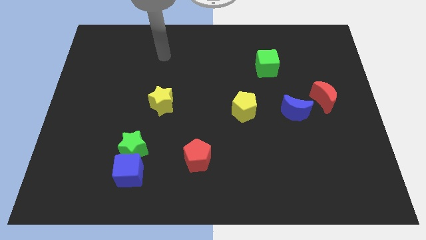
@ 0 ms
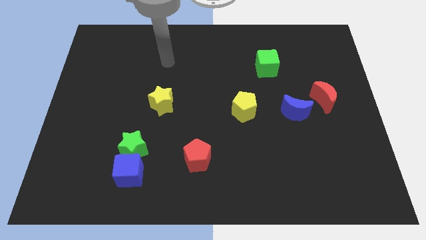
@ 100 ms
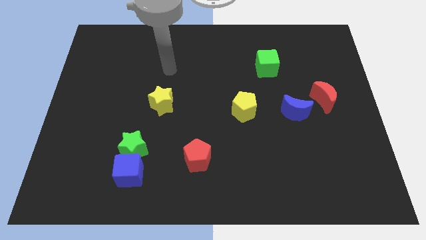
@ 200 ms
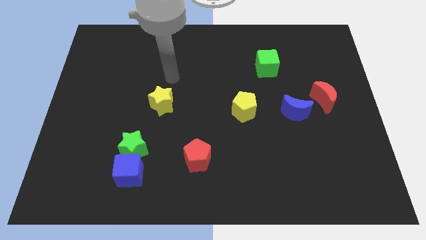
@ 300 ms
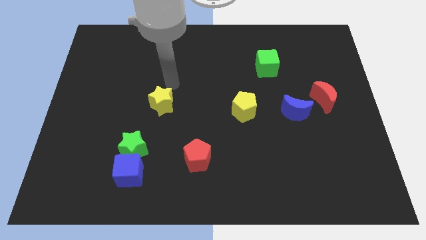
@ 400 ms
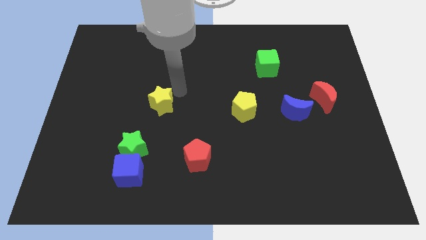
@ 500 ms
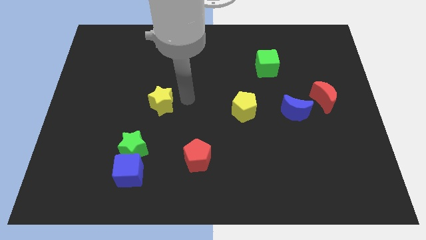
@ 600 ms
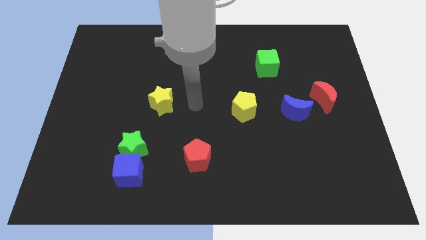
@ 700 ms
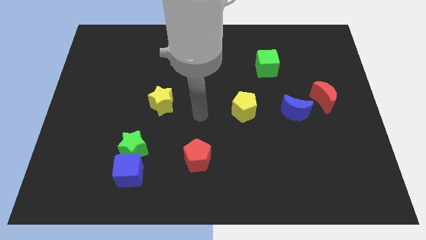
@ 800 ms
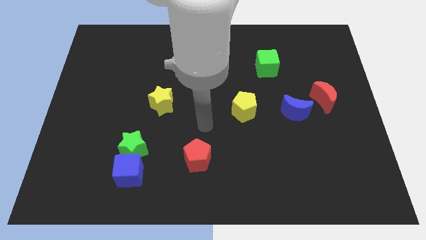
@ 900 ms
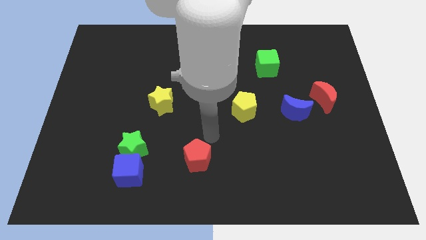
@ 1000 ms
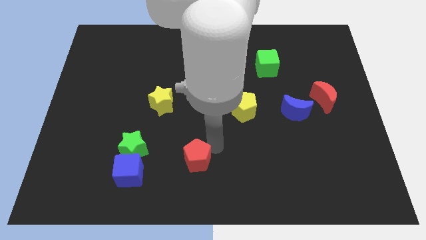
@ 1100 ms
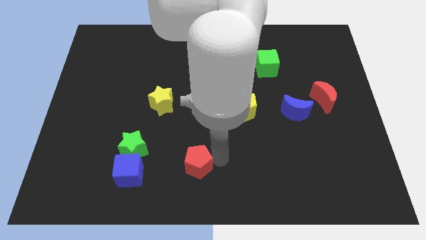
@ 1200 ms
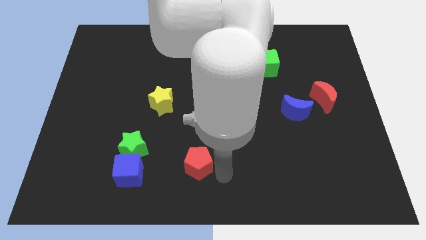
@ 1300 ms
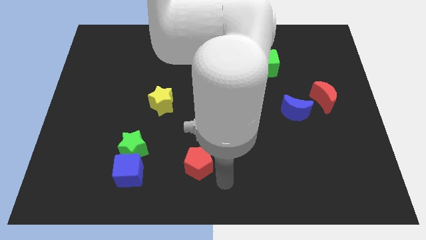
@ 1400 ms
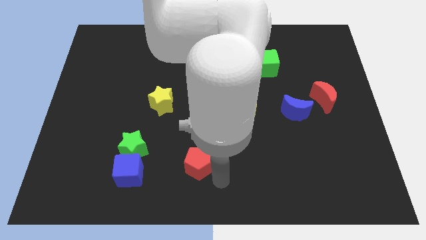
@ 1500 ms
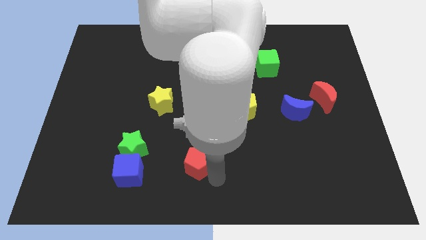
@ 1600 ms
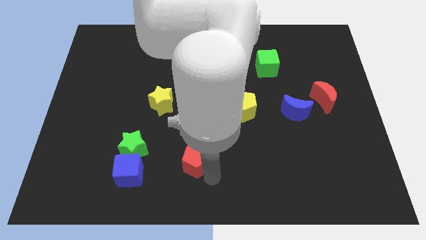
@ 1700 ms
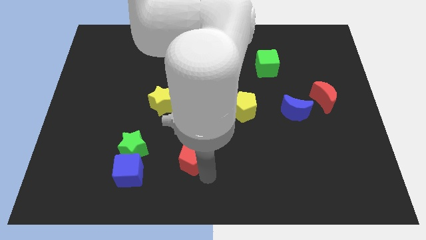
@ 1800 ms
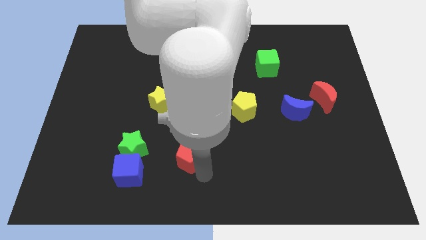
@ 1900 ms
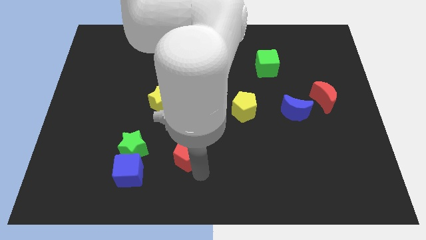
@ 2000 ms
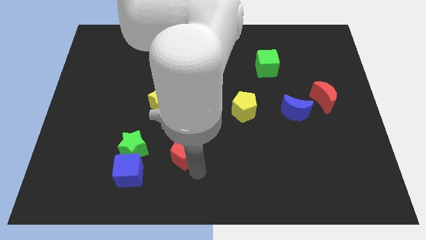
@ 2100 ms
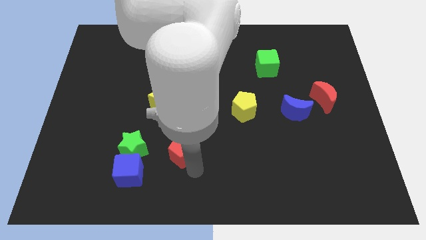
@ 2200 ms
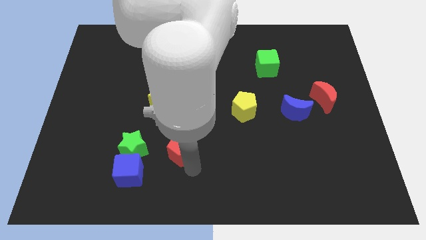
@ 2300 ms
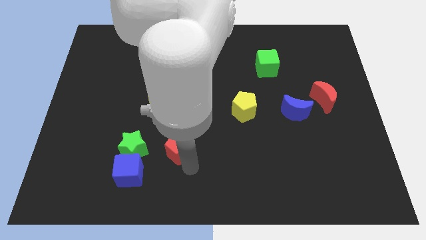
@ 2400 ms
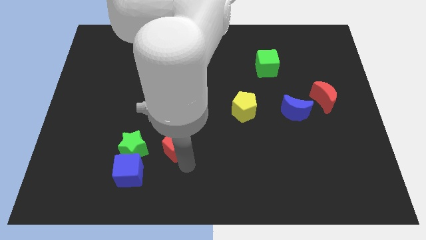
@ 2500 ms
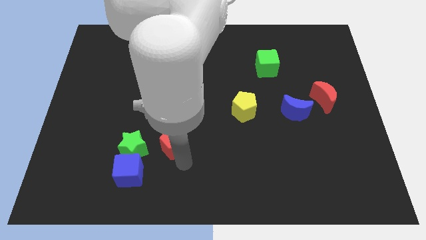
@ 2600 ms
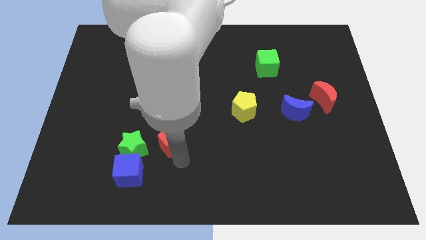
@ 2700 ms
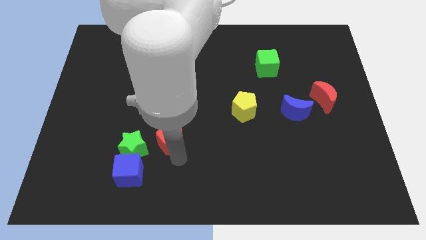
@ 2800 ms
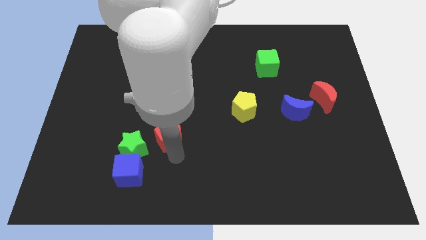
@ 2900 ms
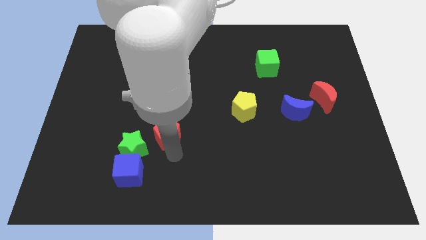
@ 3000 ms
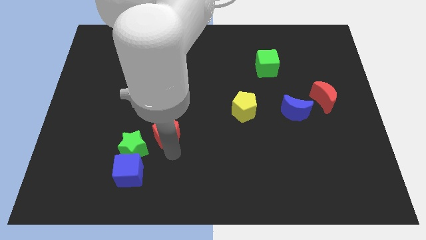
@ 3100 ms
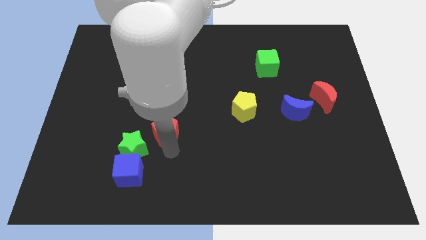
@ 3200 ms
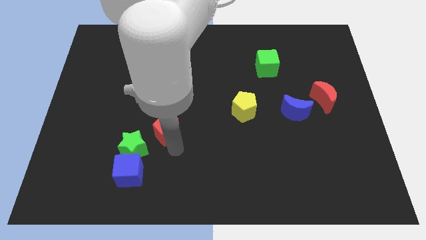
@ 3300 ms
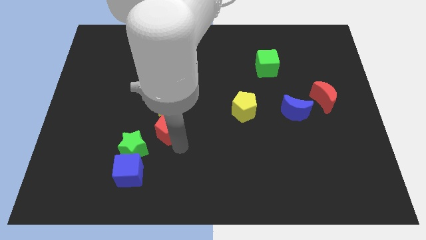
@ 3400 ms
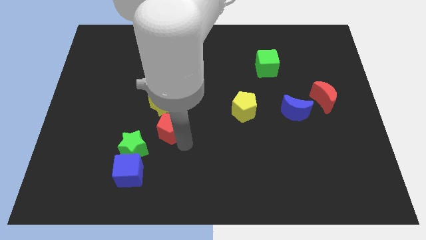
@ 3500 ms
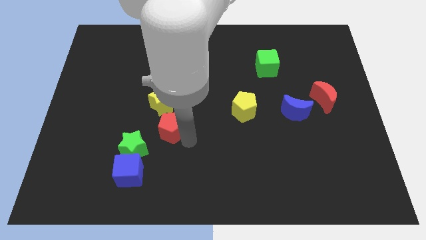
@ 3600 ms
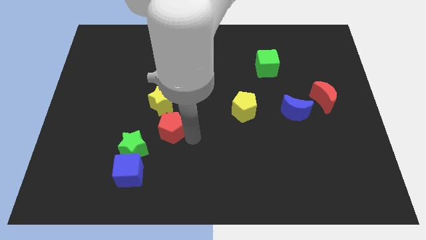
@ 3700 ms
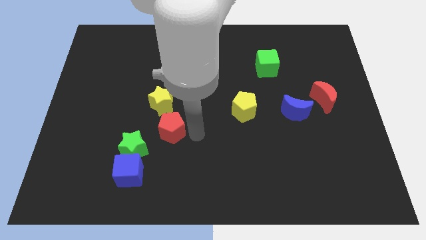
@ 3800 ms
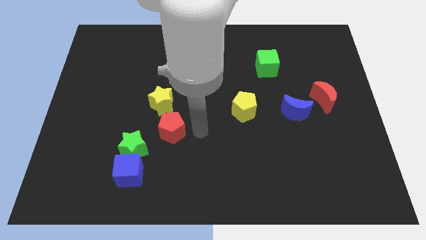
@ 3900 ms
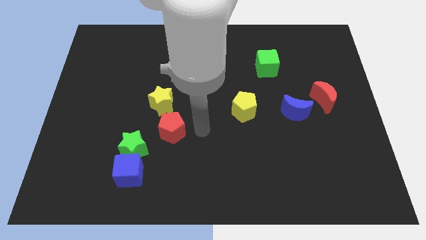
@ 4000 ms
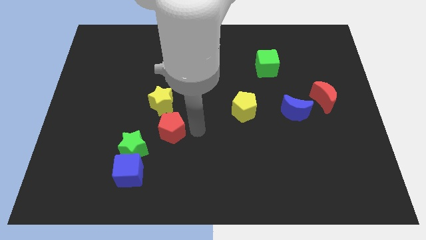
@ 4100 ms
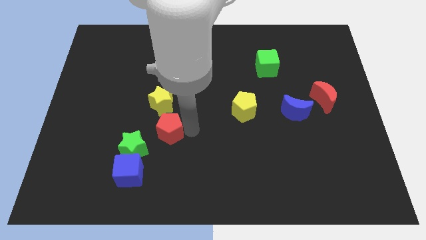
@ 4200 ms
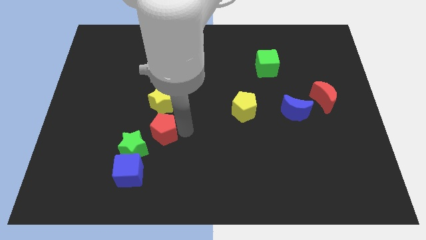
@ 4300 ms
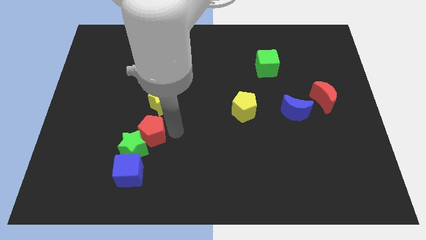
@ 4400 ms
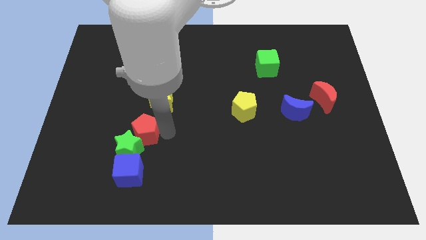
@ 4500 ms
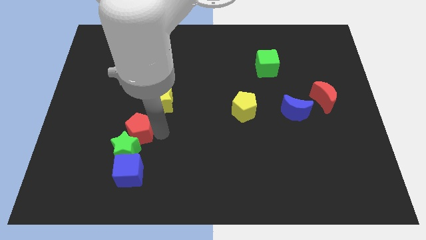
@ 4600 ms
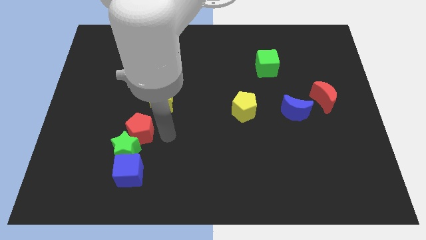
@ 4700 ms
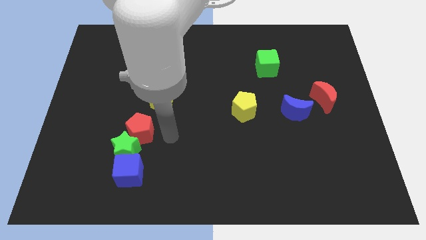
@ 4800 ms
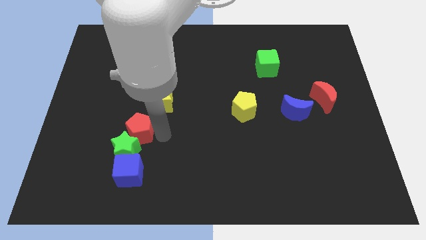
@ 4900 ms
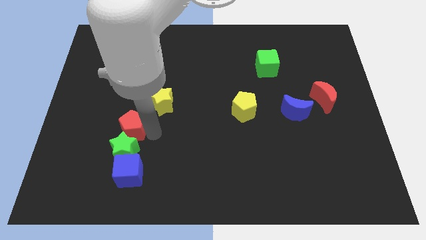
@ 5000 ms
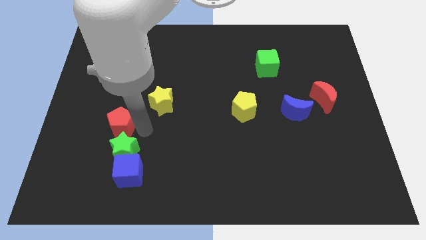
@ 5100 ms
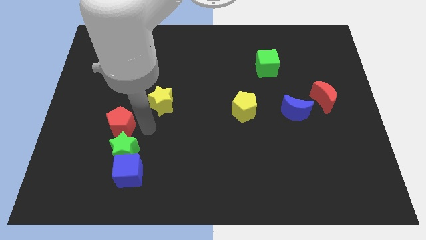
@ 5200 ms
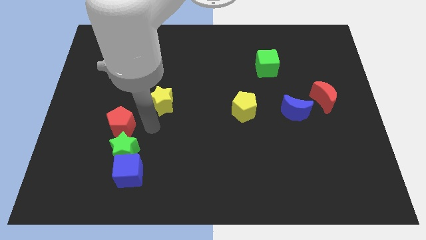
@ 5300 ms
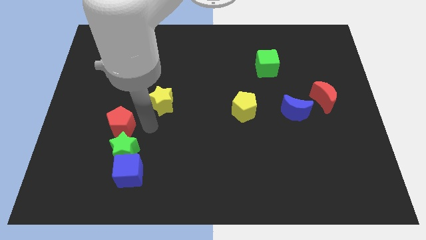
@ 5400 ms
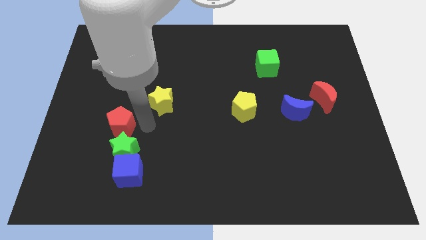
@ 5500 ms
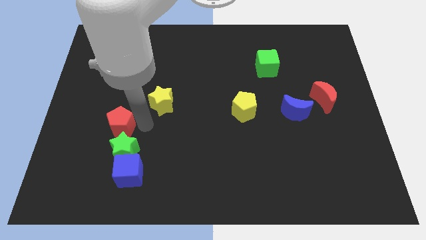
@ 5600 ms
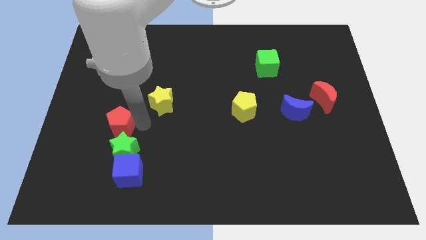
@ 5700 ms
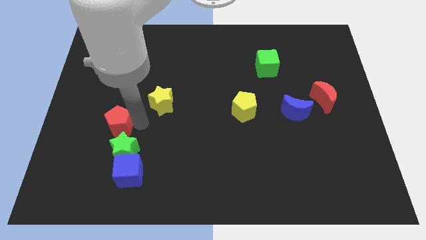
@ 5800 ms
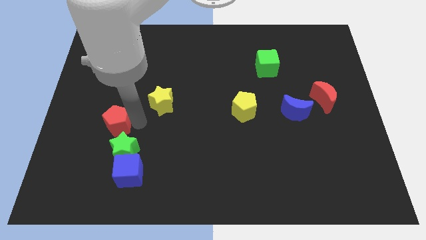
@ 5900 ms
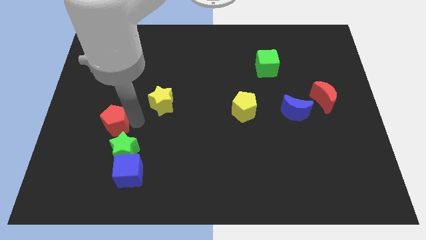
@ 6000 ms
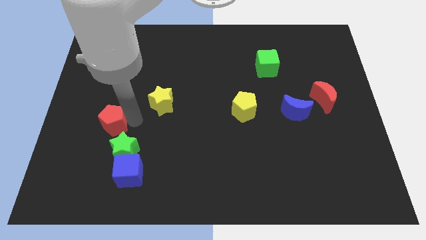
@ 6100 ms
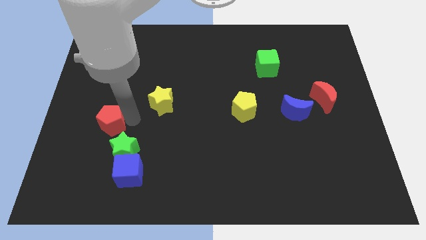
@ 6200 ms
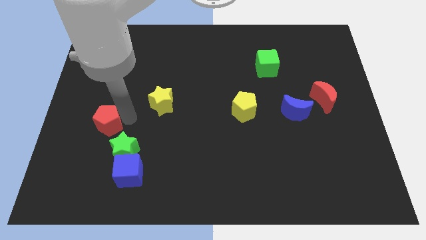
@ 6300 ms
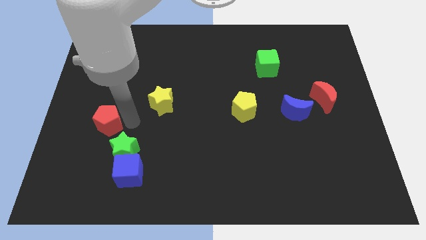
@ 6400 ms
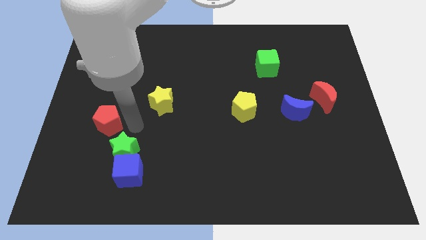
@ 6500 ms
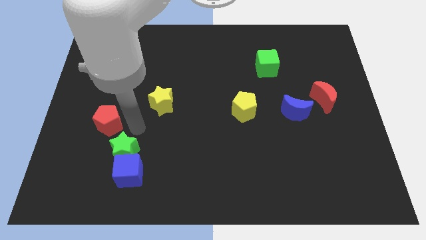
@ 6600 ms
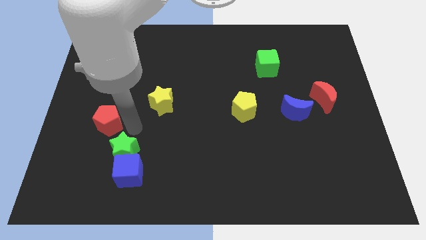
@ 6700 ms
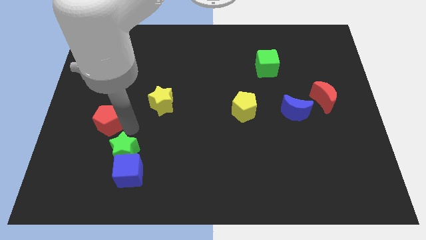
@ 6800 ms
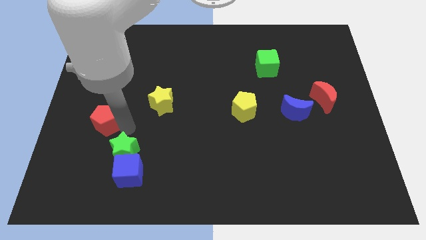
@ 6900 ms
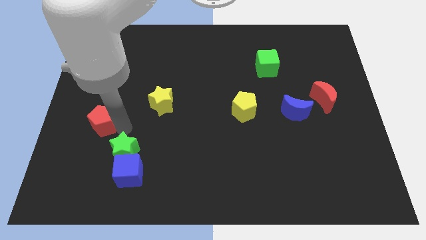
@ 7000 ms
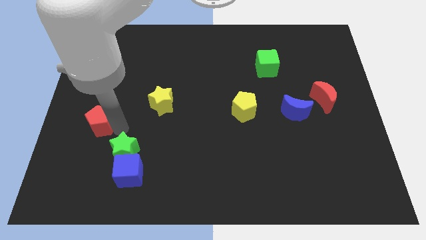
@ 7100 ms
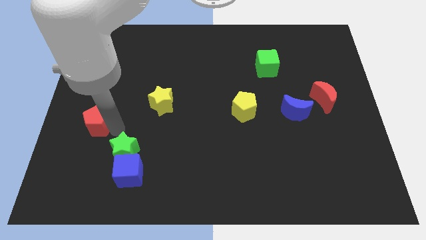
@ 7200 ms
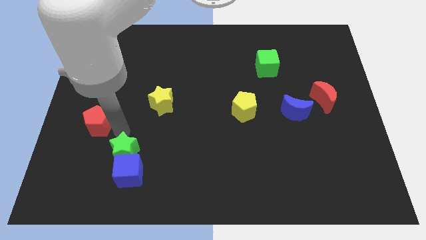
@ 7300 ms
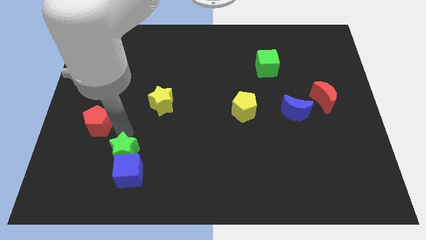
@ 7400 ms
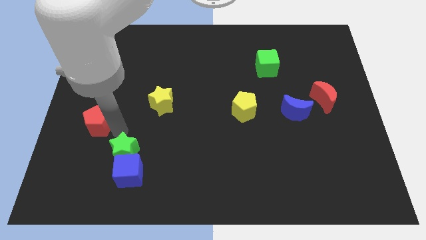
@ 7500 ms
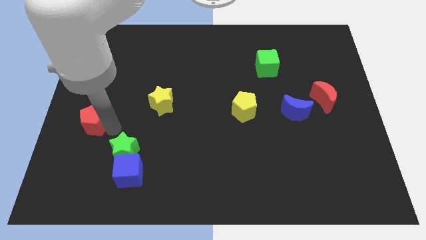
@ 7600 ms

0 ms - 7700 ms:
move the red pentagon to the center left
